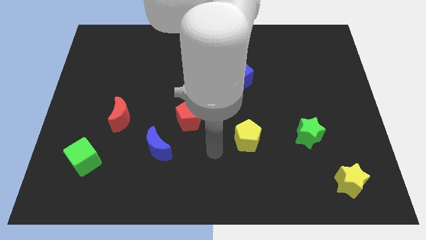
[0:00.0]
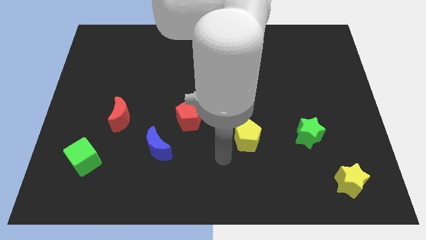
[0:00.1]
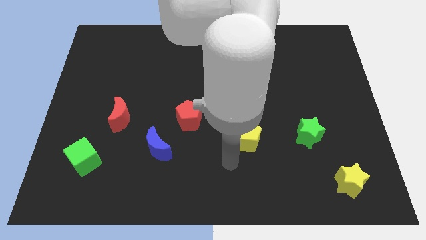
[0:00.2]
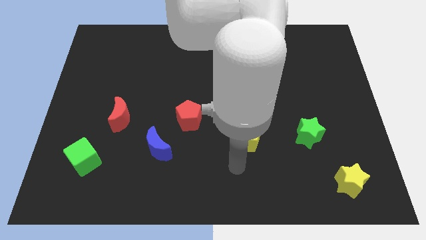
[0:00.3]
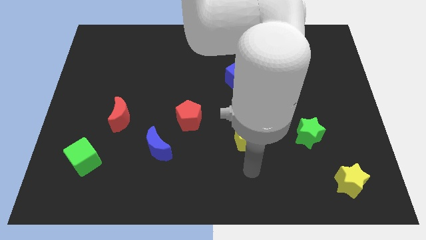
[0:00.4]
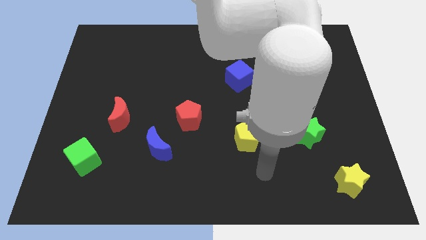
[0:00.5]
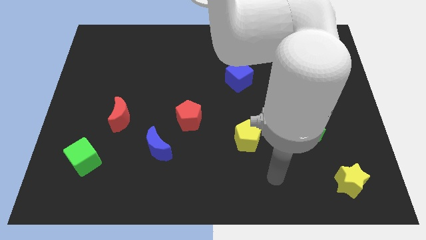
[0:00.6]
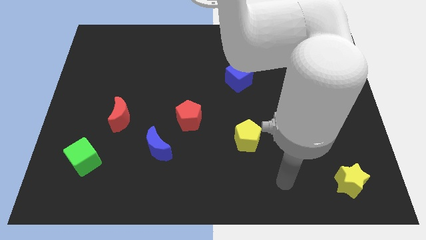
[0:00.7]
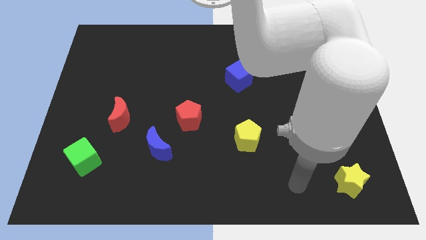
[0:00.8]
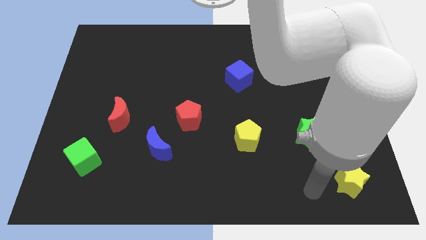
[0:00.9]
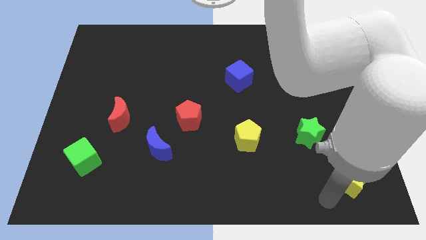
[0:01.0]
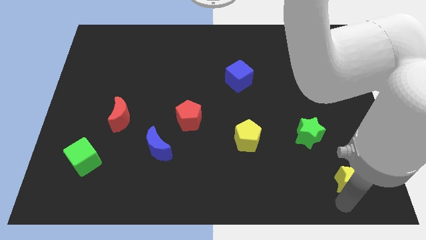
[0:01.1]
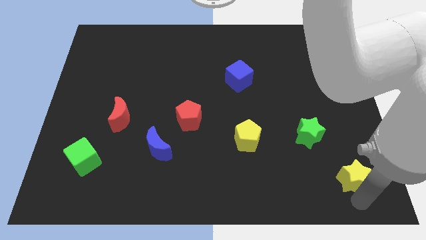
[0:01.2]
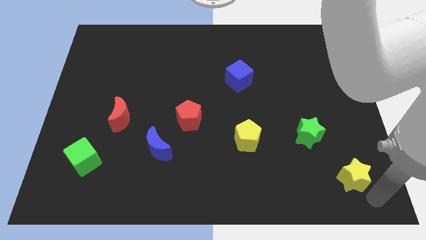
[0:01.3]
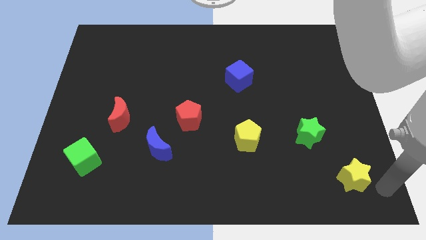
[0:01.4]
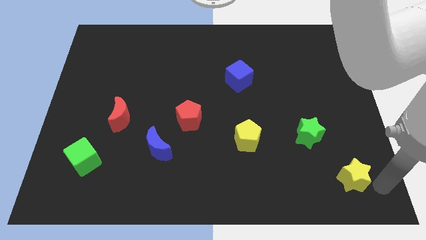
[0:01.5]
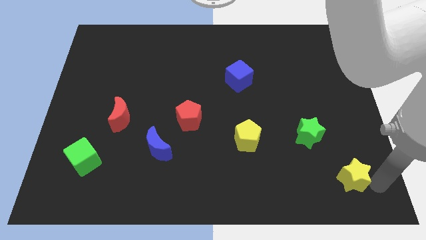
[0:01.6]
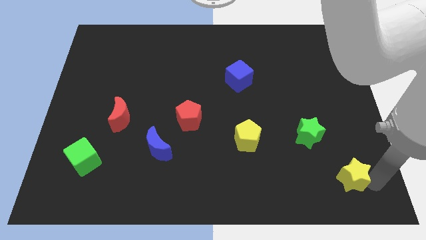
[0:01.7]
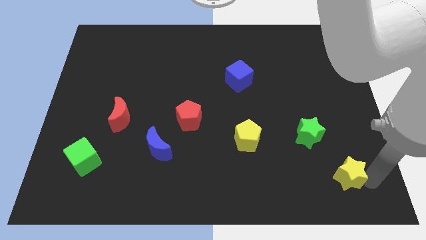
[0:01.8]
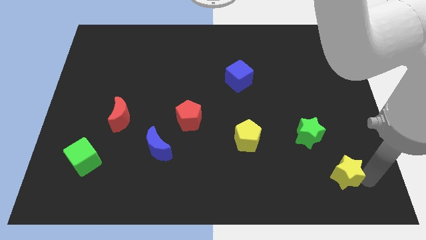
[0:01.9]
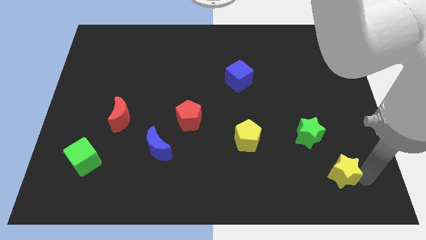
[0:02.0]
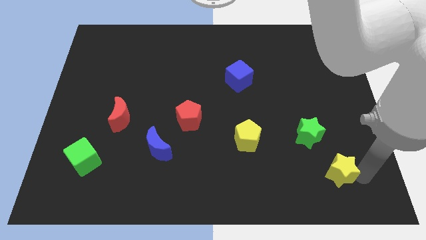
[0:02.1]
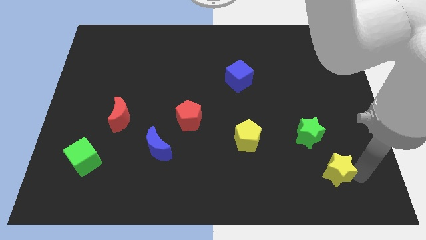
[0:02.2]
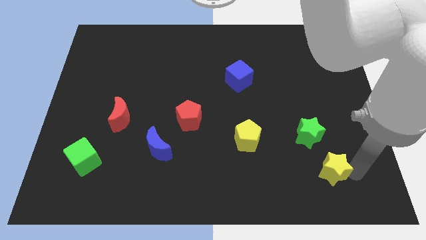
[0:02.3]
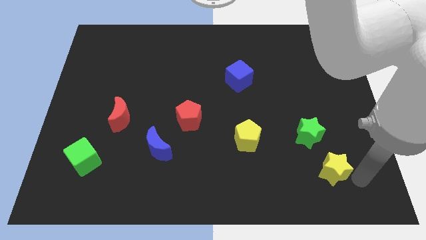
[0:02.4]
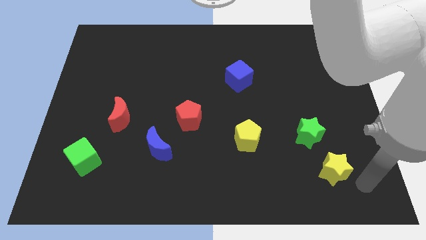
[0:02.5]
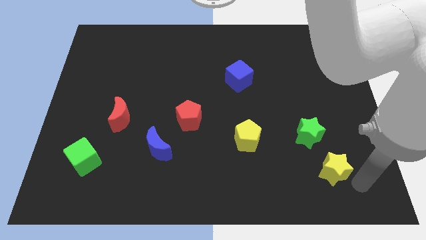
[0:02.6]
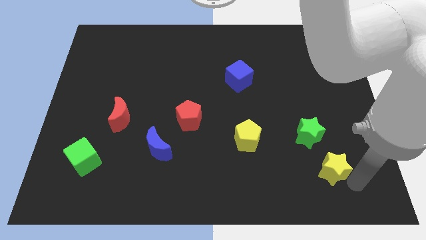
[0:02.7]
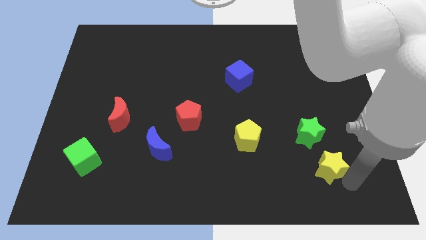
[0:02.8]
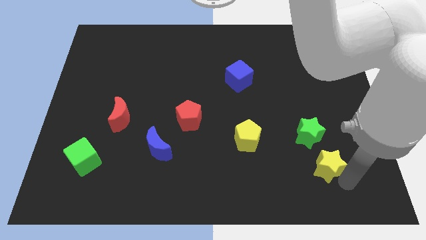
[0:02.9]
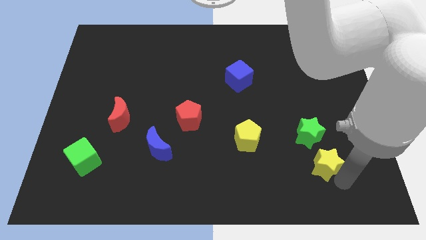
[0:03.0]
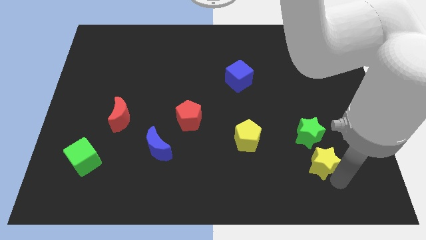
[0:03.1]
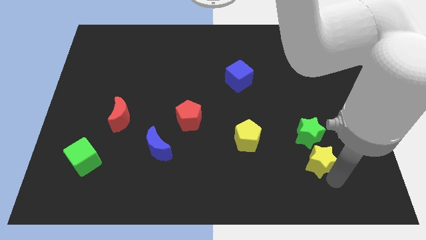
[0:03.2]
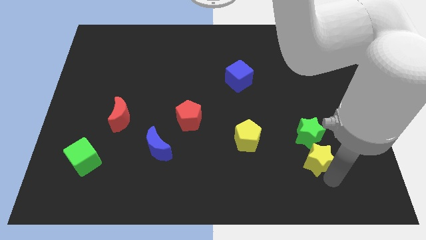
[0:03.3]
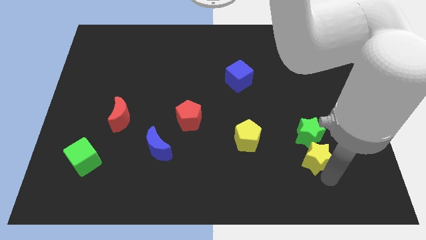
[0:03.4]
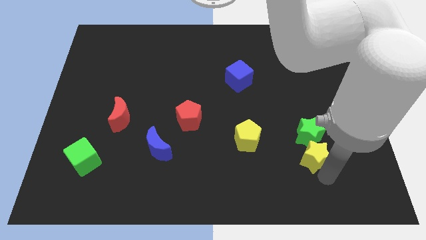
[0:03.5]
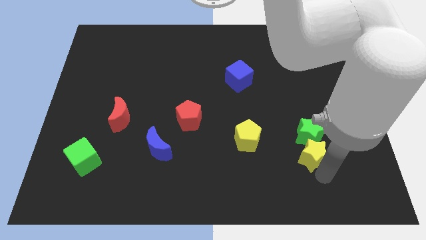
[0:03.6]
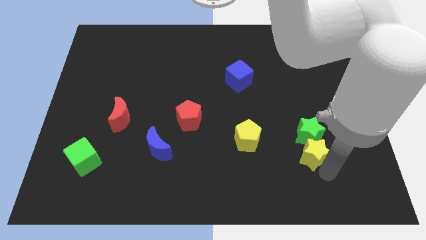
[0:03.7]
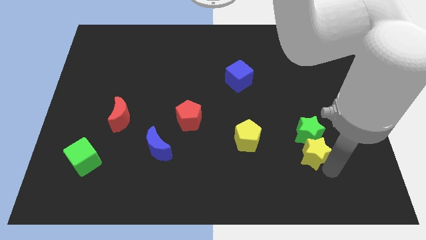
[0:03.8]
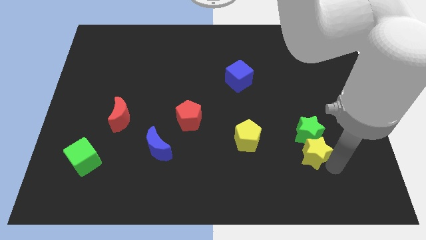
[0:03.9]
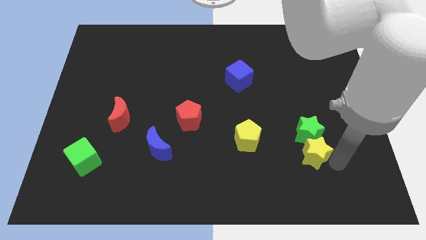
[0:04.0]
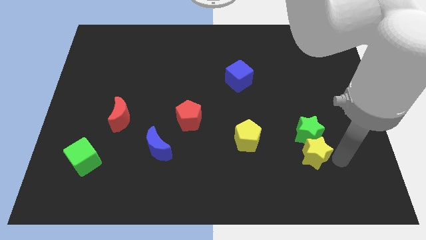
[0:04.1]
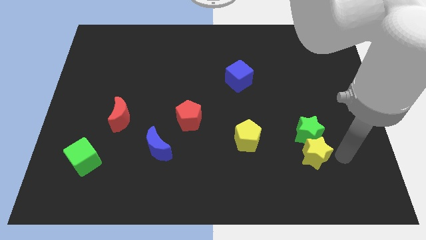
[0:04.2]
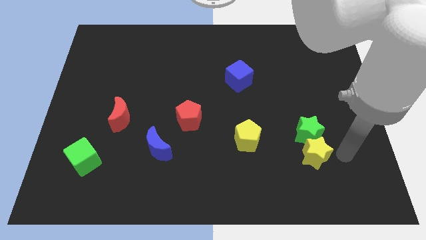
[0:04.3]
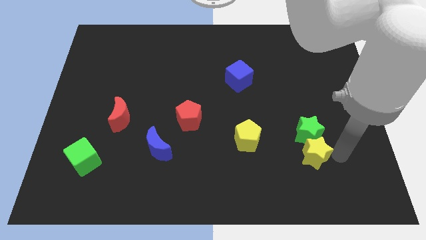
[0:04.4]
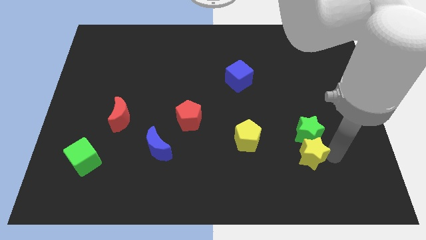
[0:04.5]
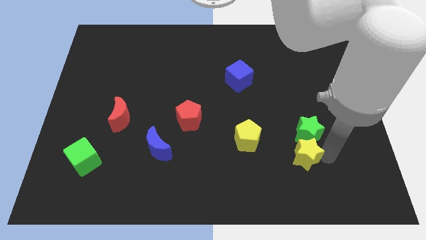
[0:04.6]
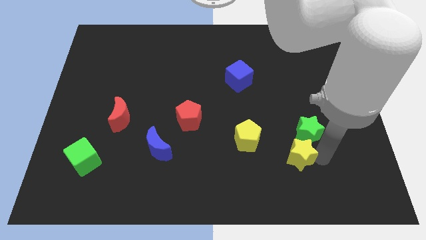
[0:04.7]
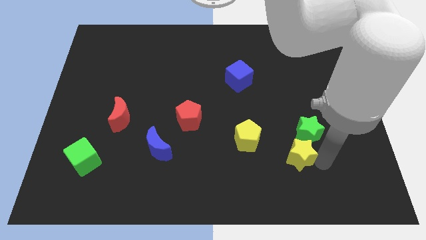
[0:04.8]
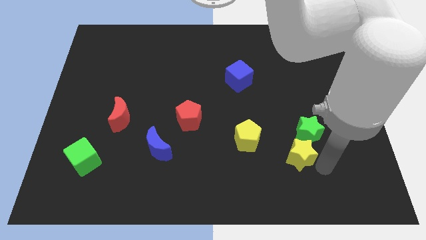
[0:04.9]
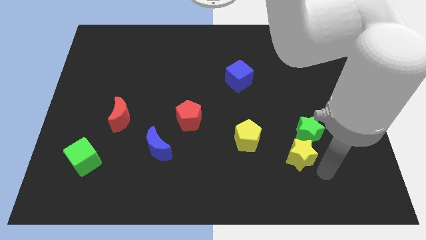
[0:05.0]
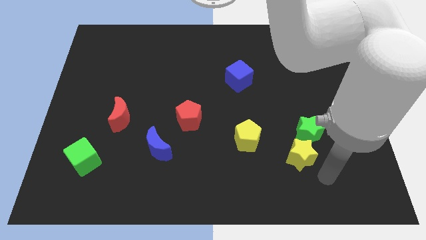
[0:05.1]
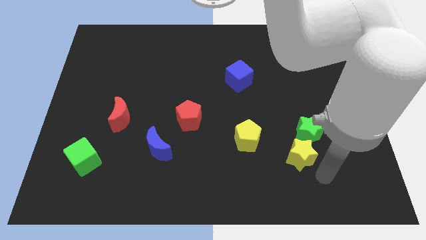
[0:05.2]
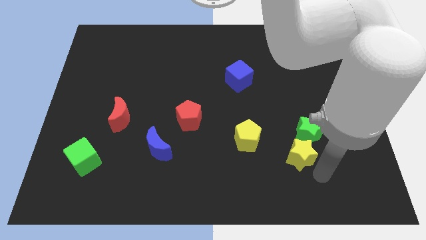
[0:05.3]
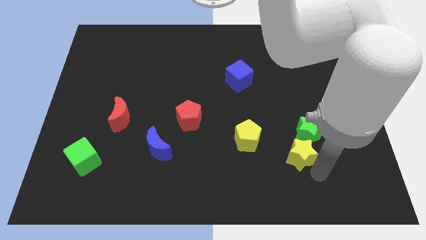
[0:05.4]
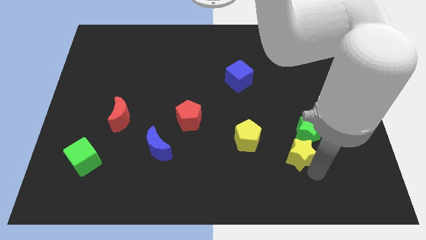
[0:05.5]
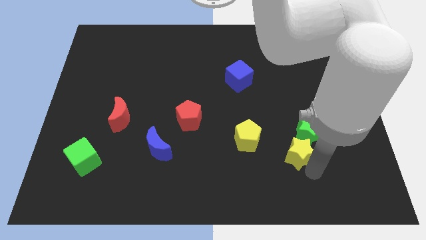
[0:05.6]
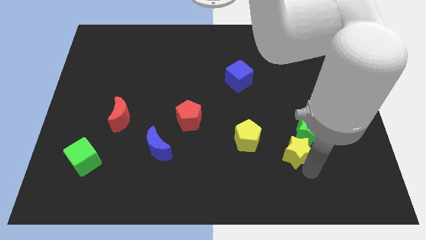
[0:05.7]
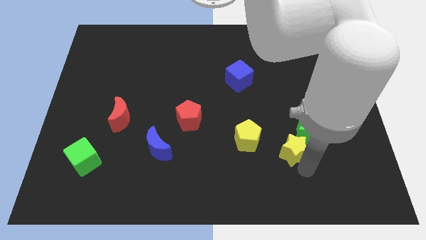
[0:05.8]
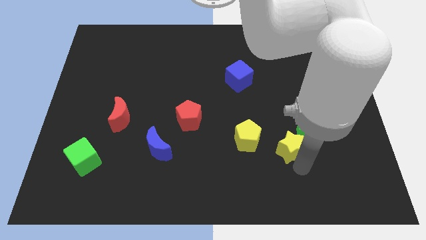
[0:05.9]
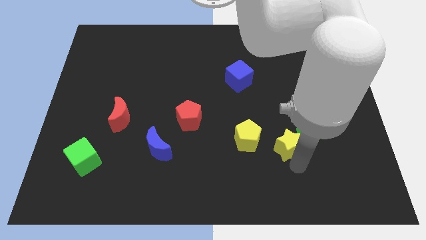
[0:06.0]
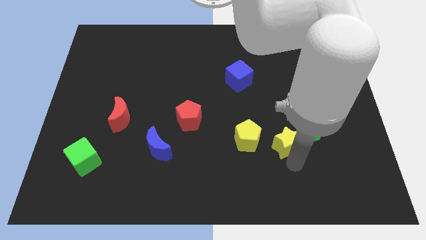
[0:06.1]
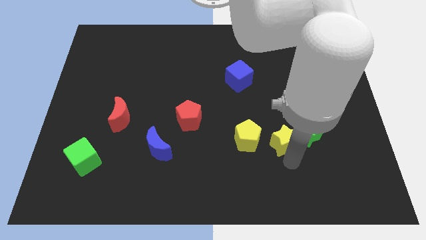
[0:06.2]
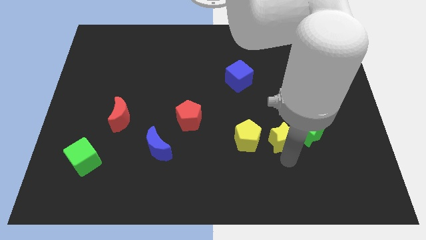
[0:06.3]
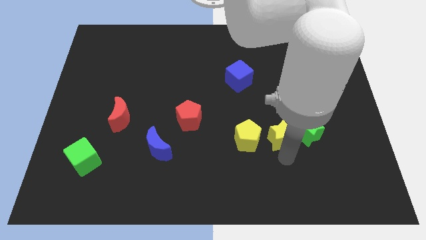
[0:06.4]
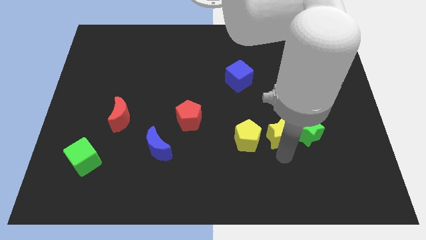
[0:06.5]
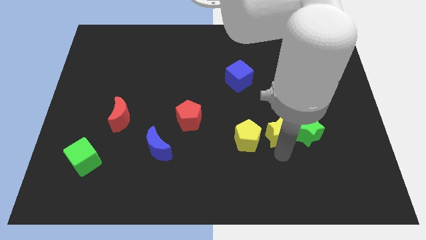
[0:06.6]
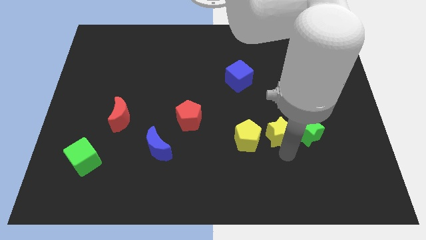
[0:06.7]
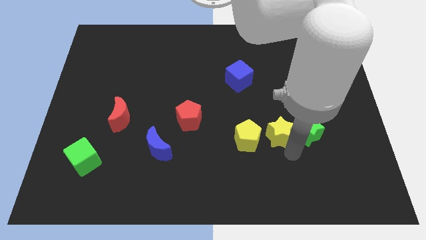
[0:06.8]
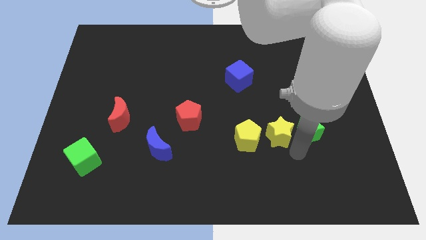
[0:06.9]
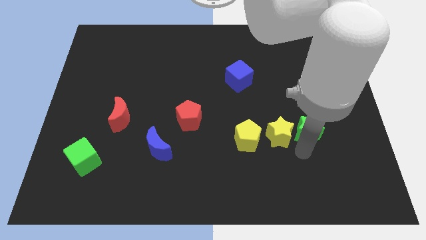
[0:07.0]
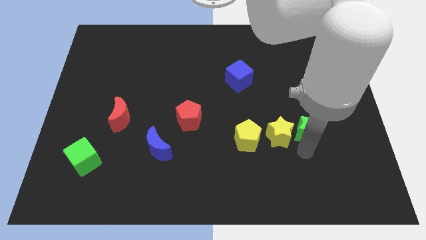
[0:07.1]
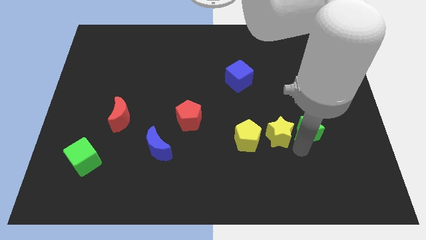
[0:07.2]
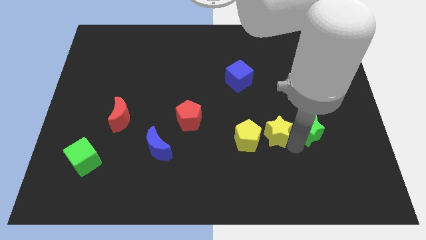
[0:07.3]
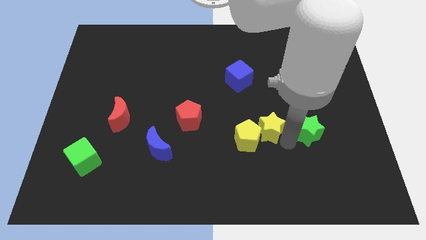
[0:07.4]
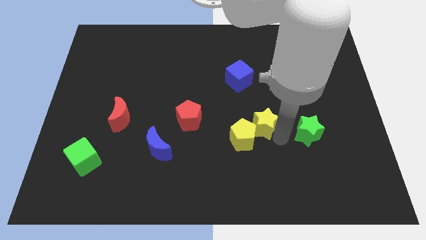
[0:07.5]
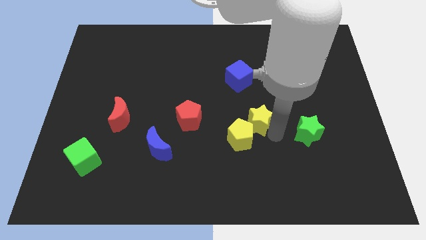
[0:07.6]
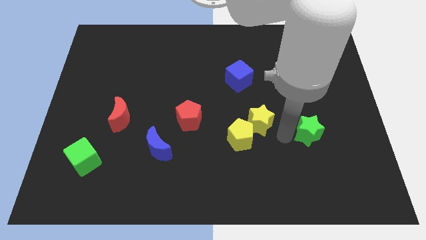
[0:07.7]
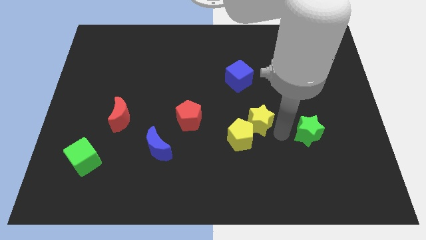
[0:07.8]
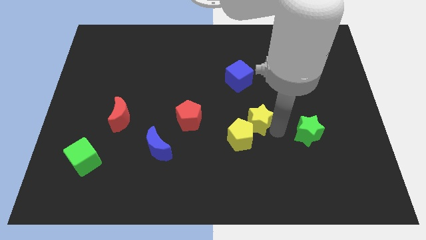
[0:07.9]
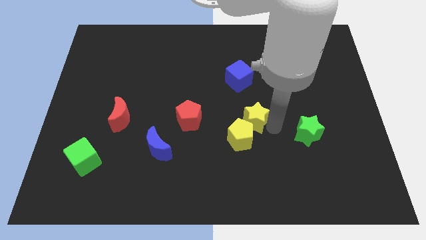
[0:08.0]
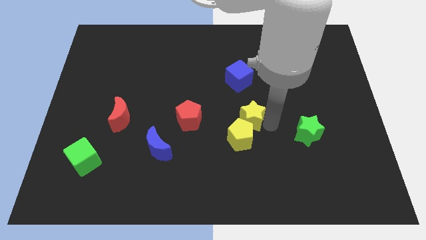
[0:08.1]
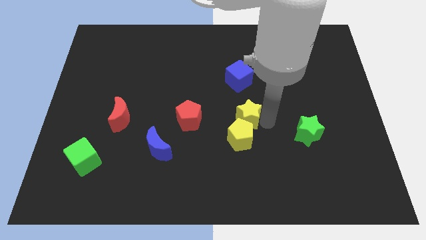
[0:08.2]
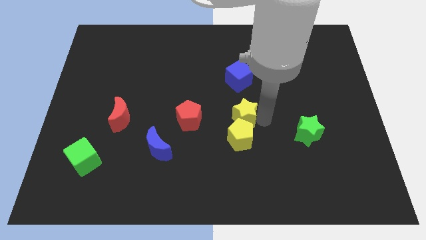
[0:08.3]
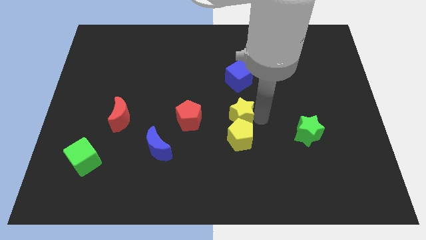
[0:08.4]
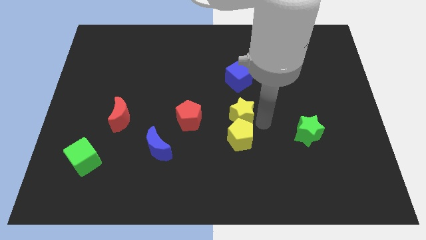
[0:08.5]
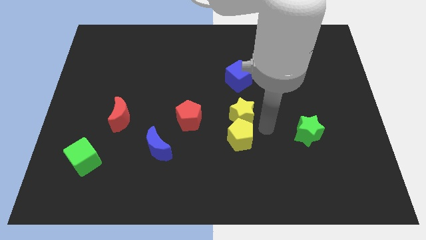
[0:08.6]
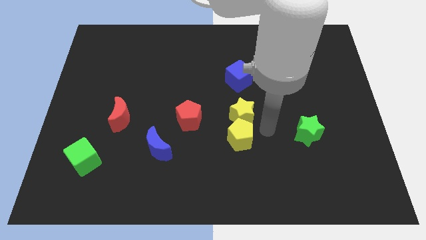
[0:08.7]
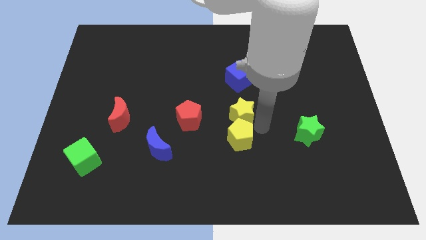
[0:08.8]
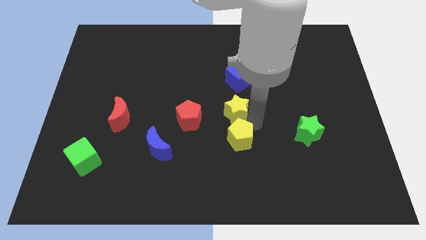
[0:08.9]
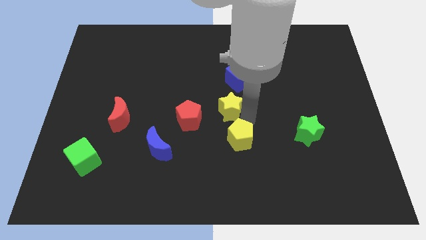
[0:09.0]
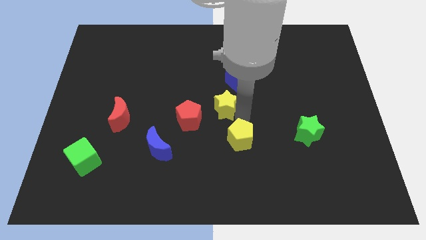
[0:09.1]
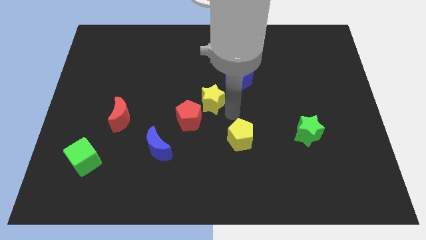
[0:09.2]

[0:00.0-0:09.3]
slide the yellow star to the top side of the red pentagon
